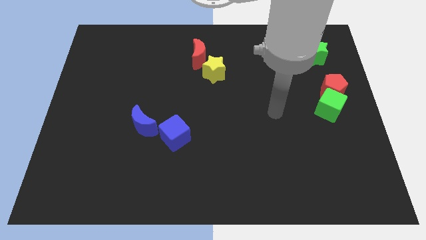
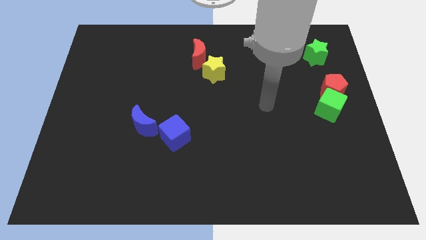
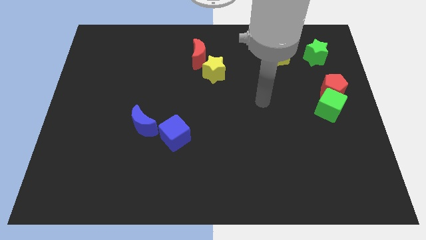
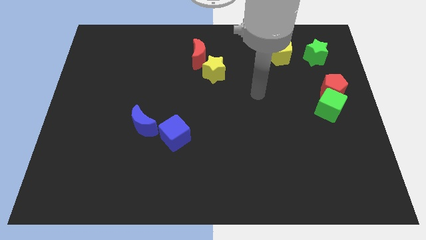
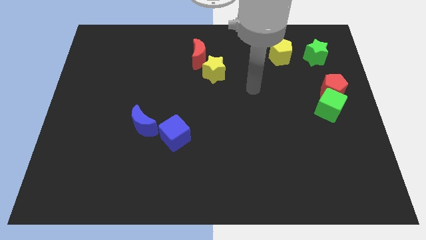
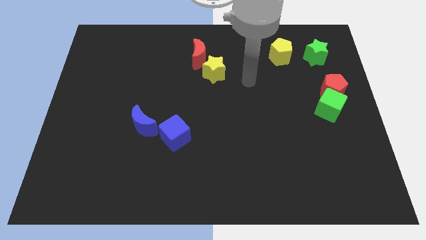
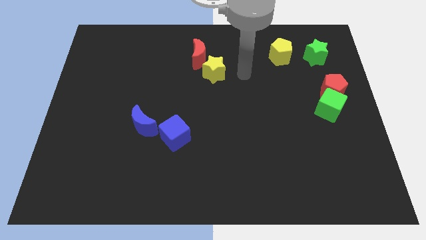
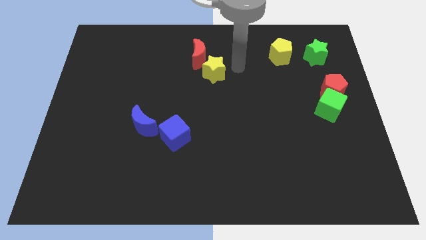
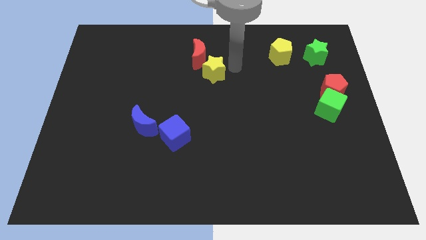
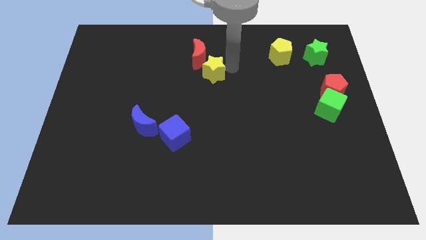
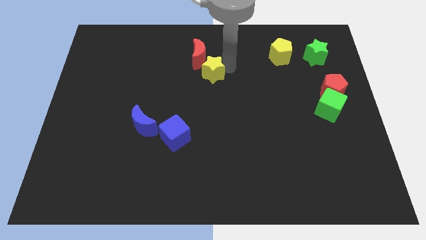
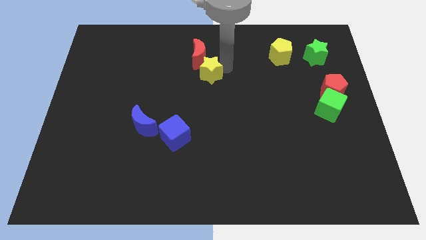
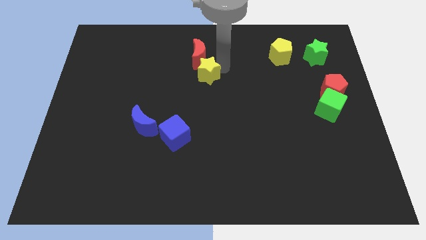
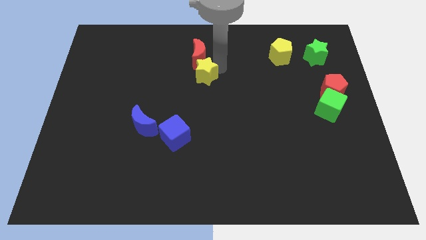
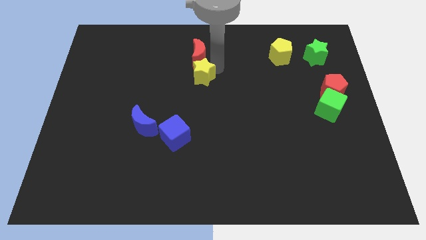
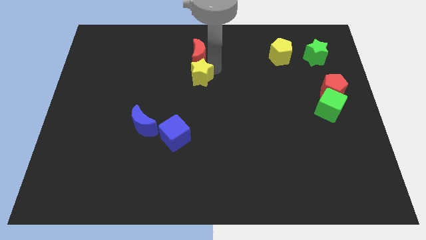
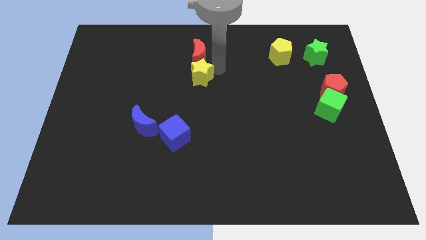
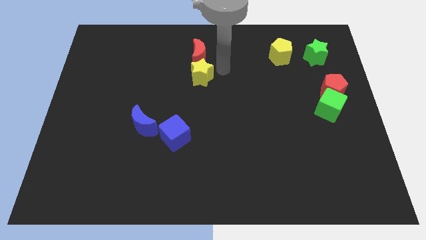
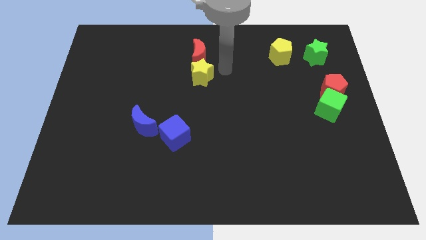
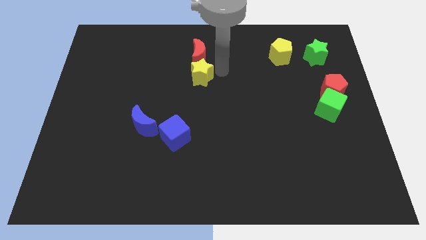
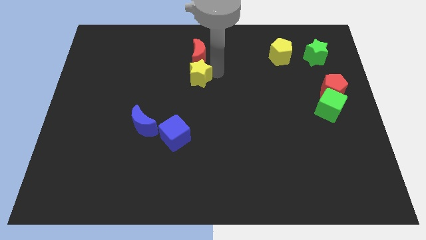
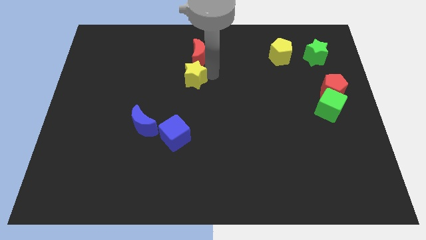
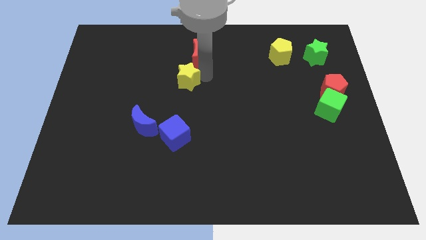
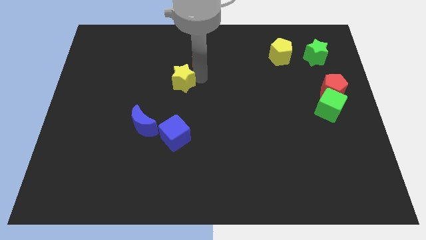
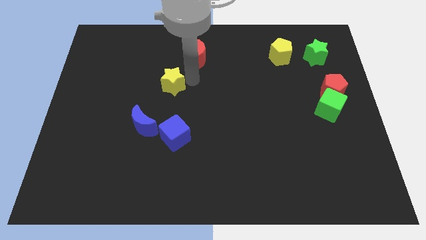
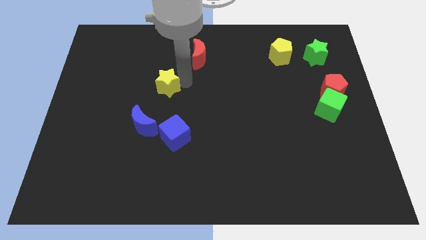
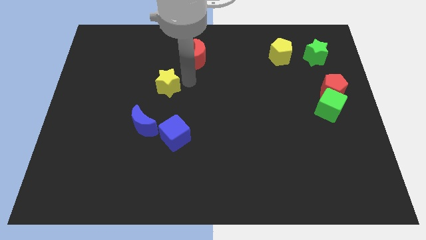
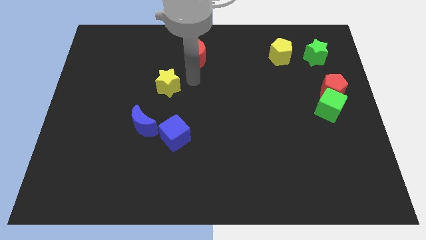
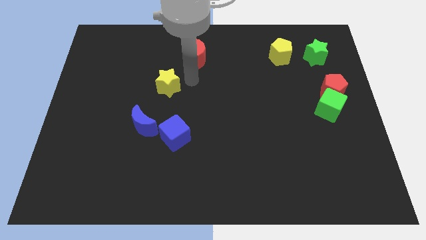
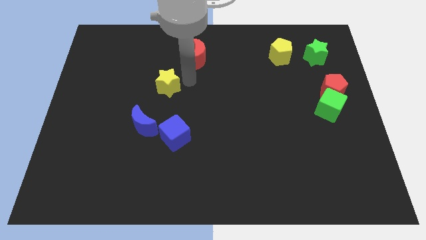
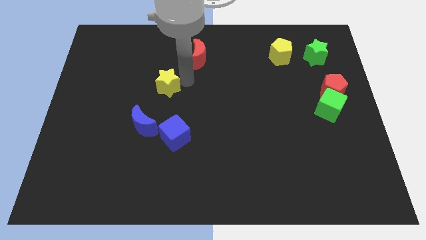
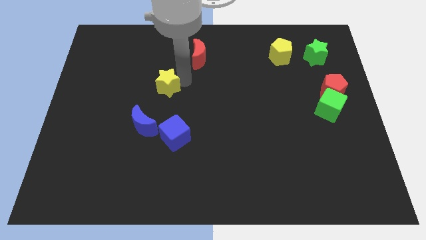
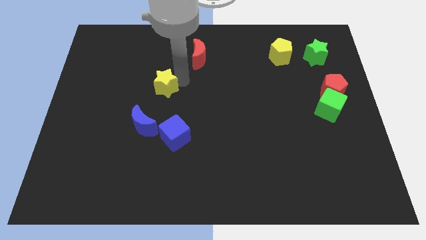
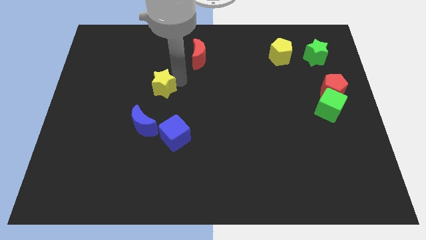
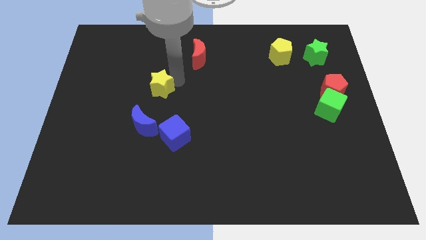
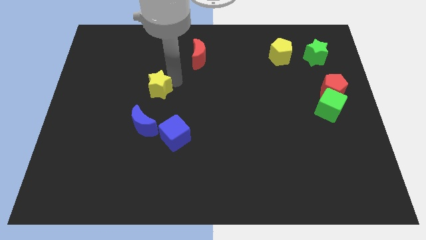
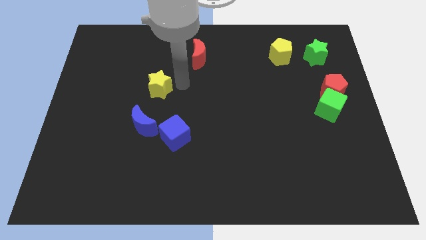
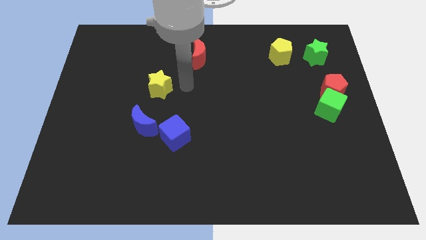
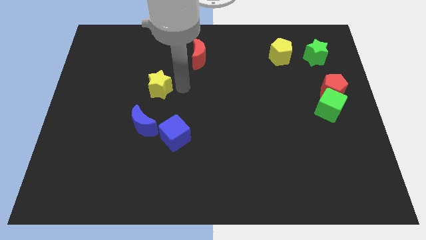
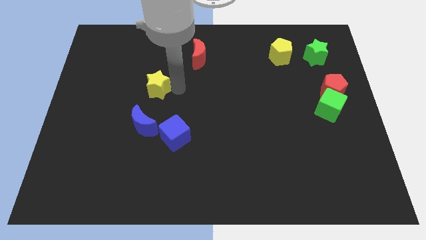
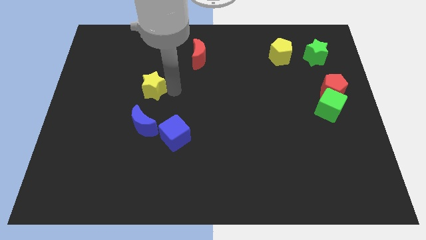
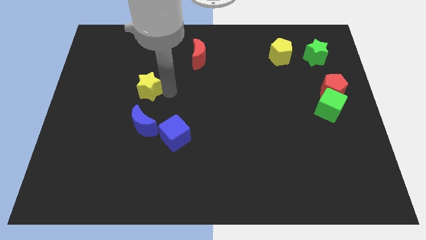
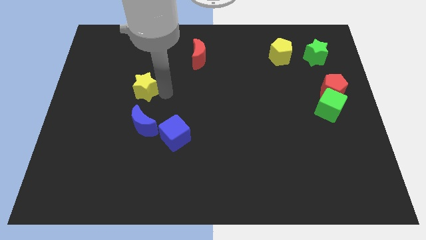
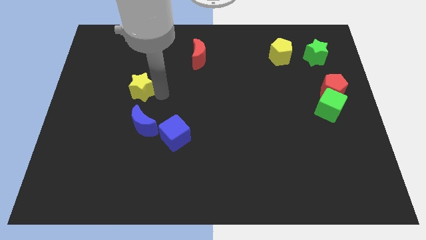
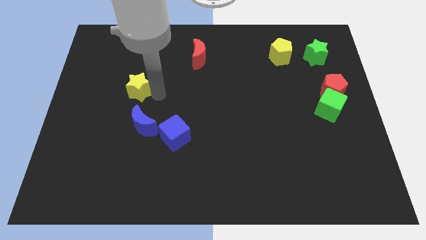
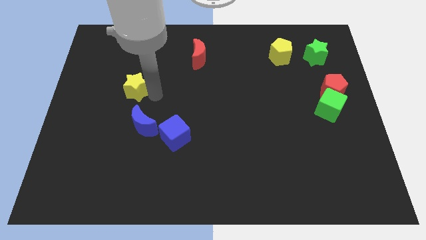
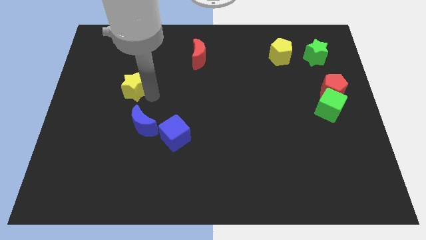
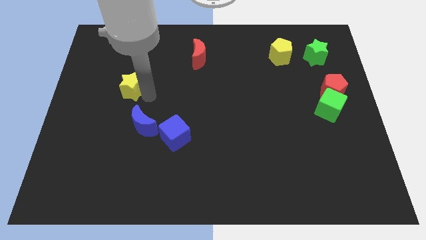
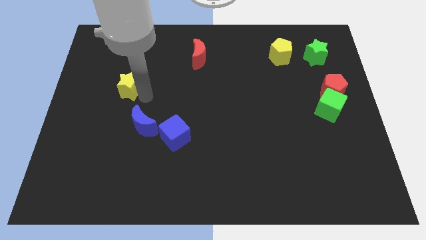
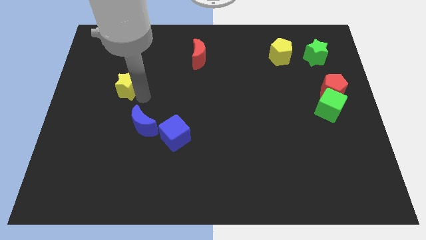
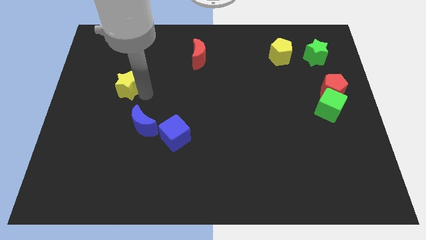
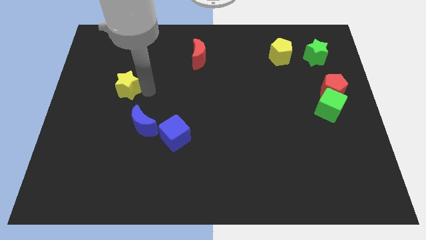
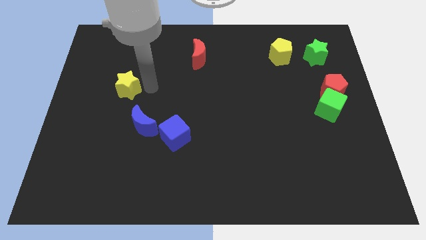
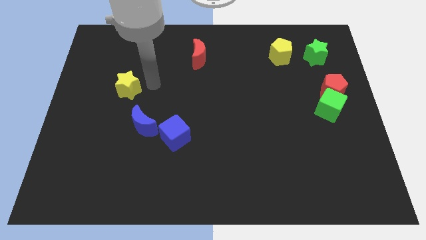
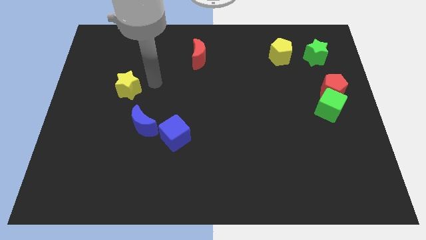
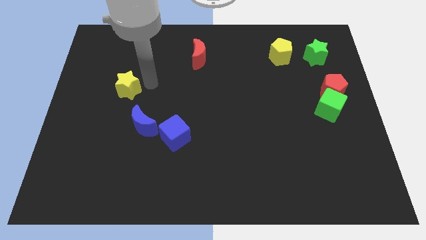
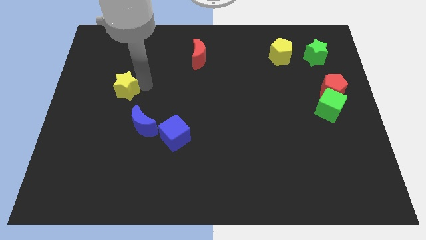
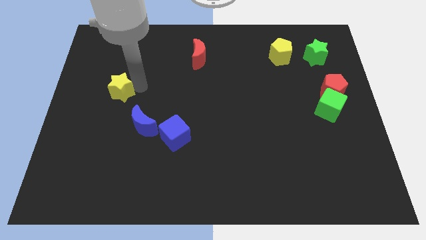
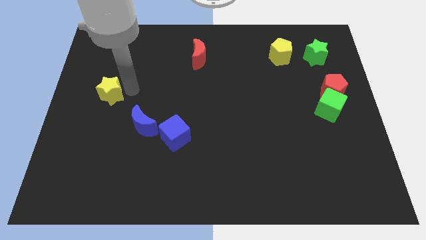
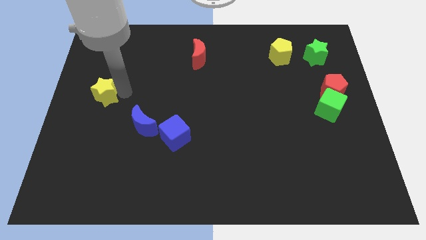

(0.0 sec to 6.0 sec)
move the yellow star to the center left
